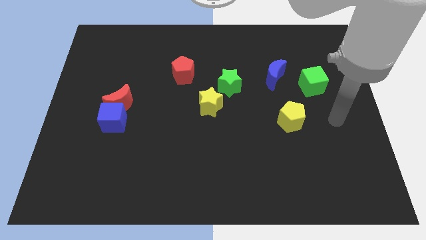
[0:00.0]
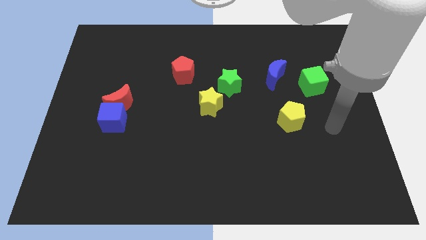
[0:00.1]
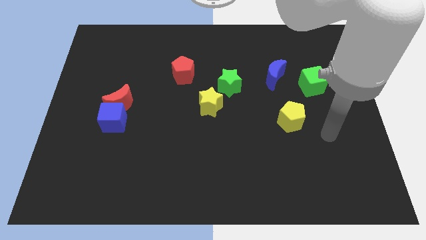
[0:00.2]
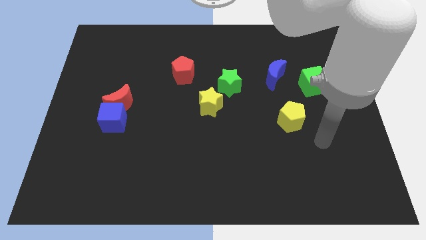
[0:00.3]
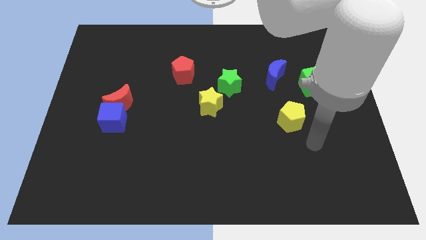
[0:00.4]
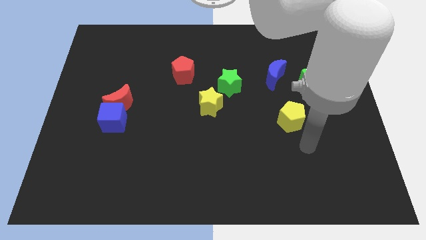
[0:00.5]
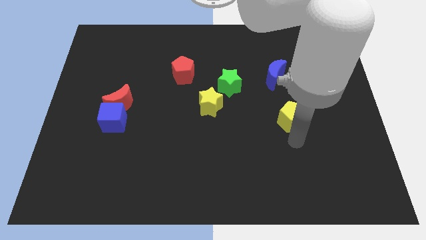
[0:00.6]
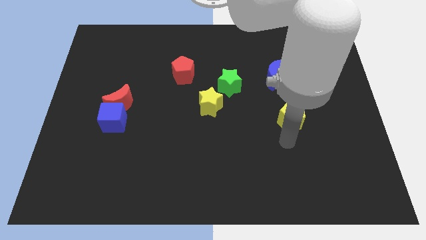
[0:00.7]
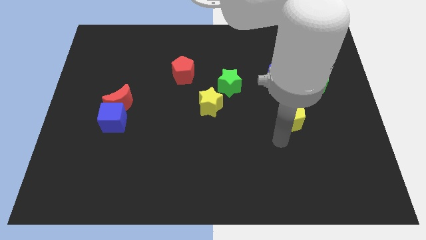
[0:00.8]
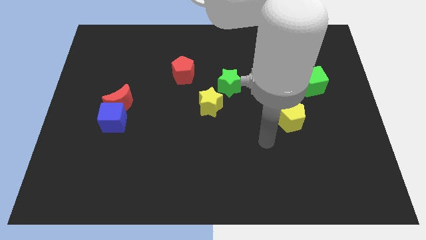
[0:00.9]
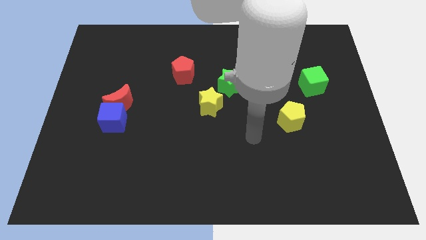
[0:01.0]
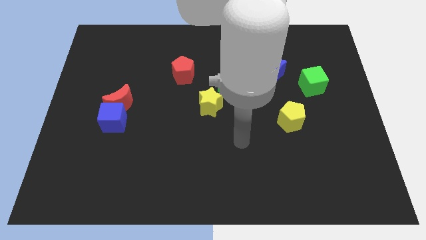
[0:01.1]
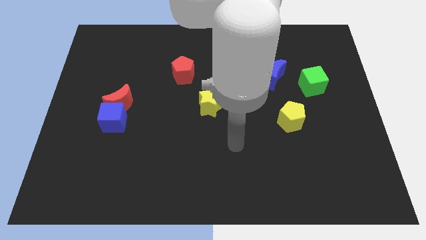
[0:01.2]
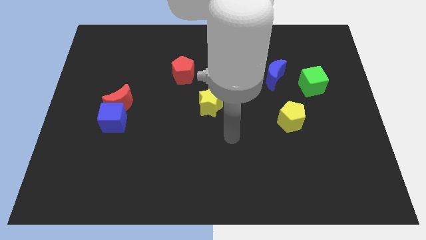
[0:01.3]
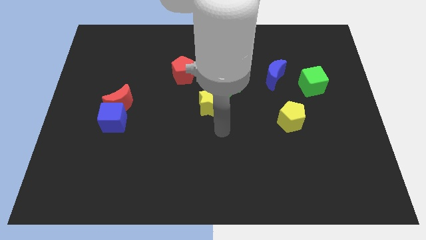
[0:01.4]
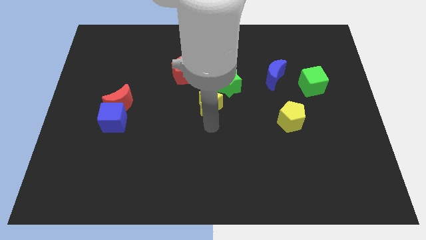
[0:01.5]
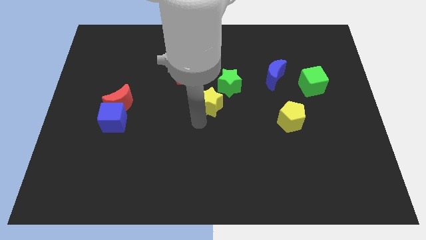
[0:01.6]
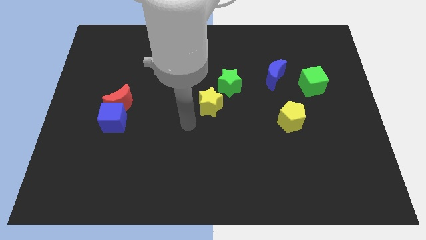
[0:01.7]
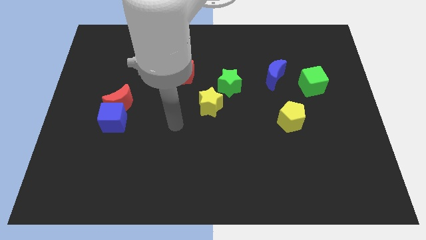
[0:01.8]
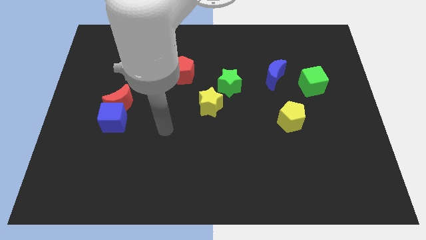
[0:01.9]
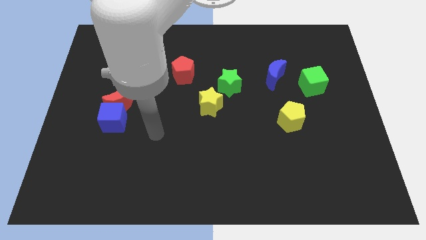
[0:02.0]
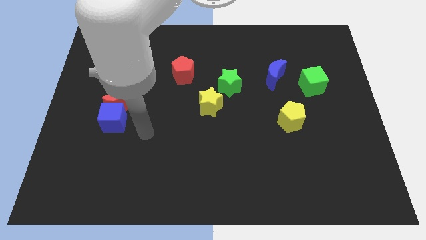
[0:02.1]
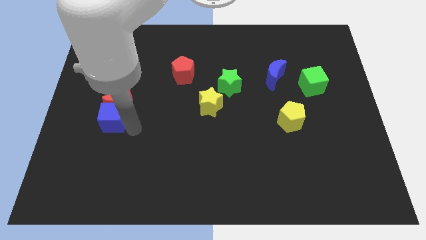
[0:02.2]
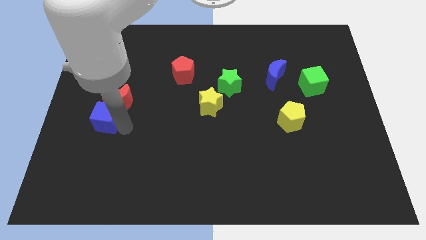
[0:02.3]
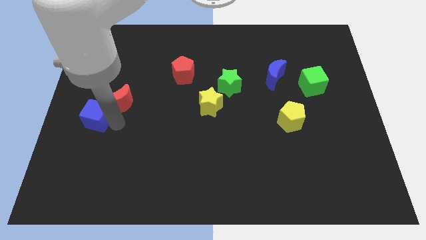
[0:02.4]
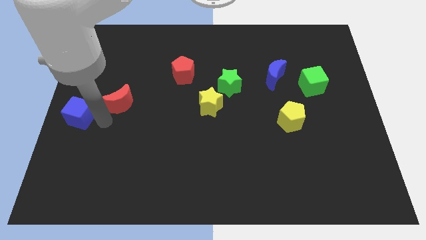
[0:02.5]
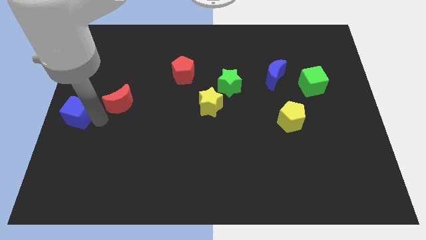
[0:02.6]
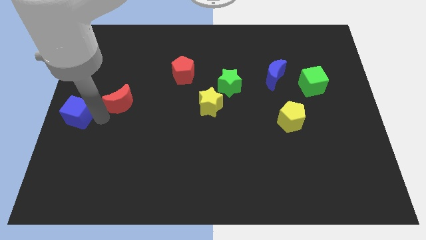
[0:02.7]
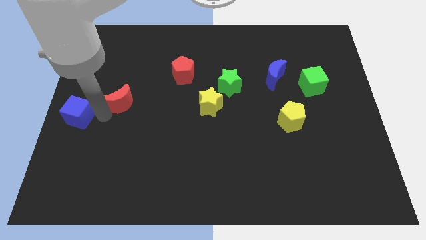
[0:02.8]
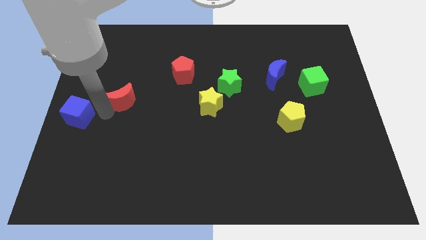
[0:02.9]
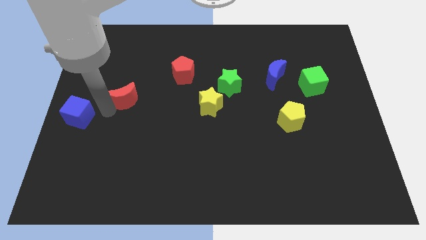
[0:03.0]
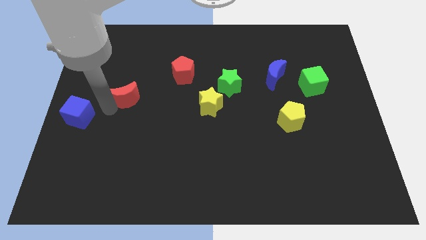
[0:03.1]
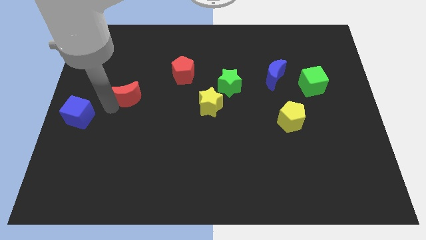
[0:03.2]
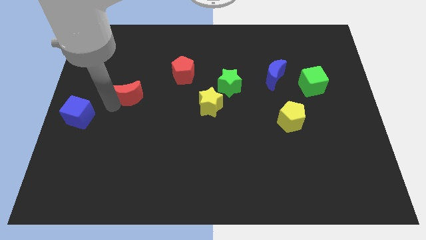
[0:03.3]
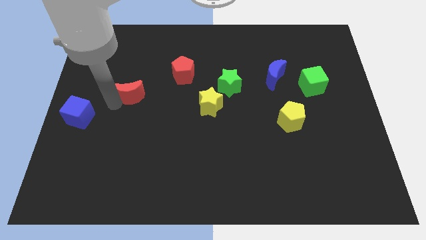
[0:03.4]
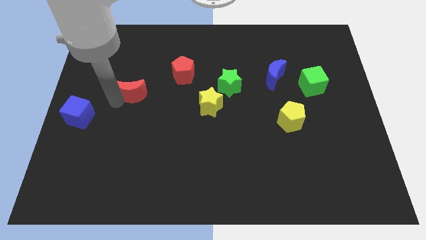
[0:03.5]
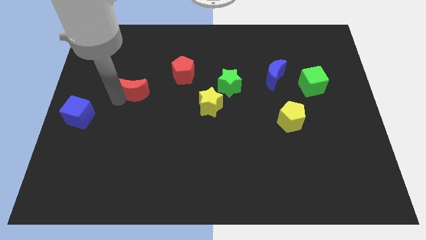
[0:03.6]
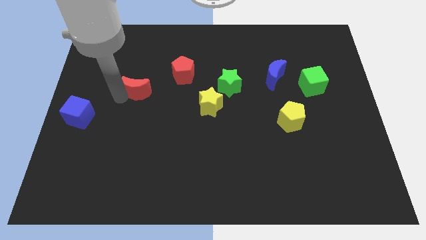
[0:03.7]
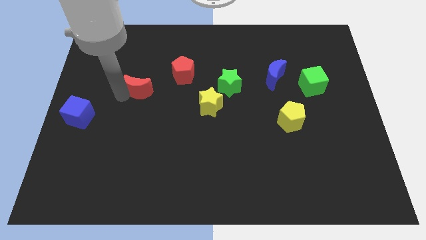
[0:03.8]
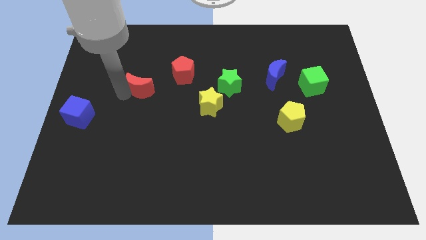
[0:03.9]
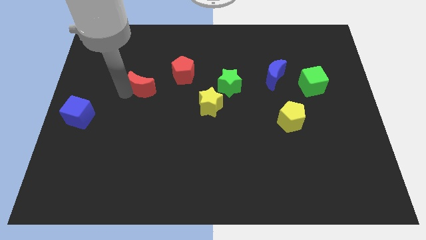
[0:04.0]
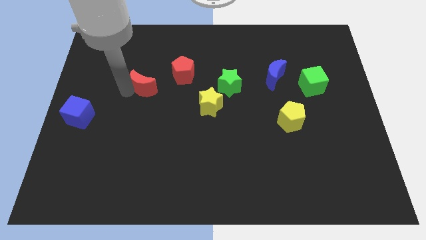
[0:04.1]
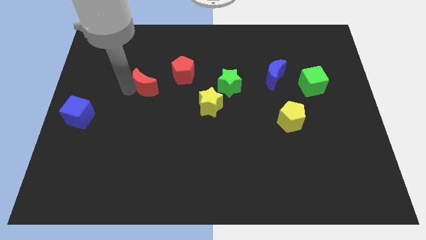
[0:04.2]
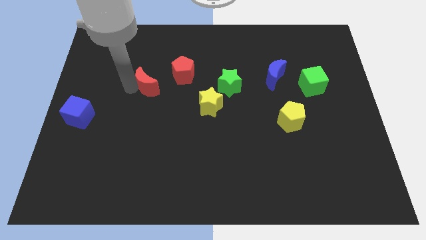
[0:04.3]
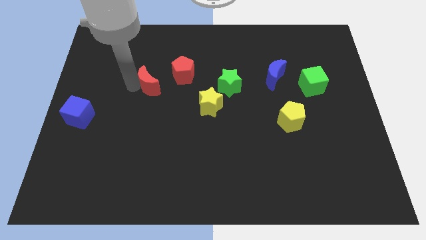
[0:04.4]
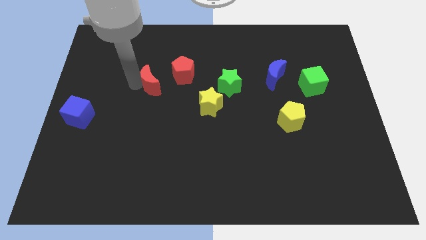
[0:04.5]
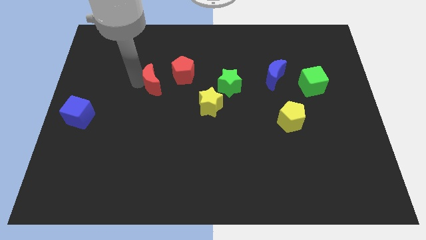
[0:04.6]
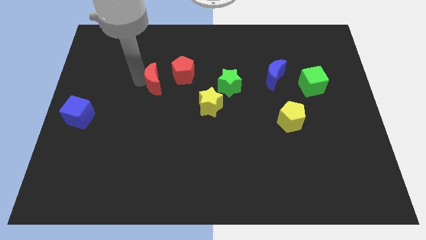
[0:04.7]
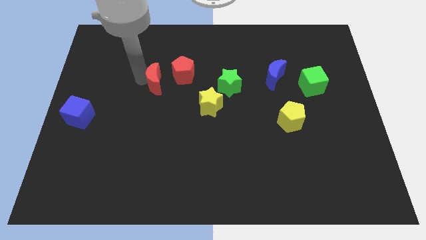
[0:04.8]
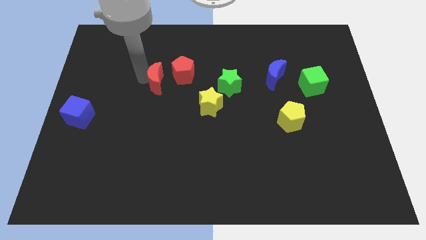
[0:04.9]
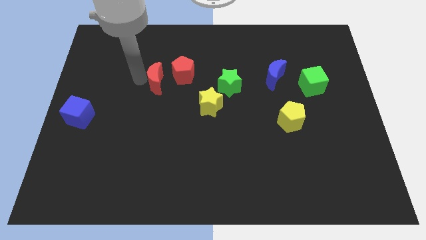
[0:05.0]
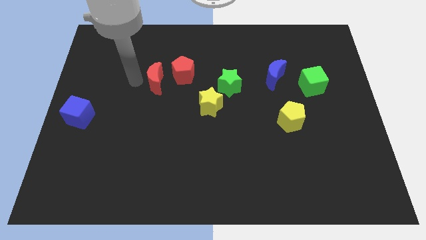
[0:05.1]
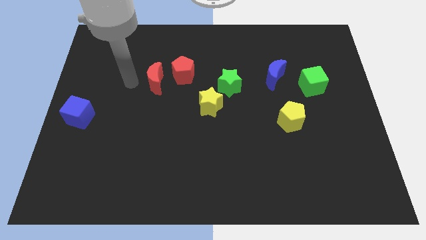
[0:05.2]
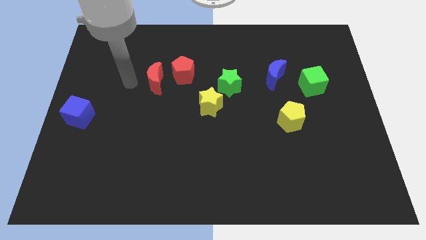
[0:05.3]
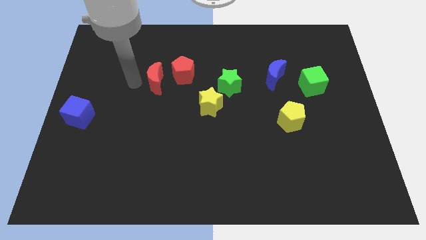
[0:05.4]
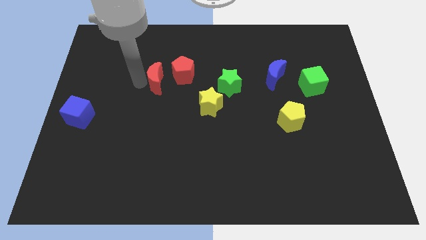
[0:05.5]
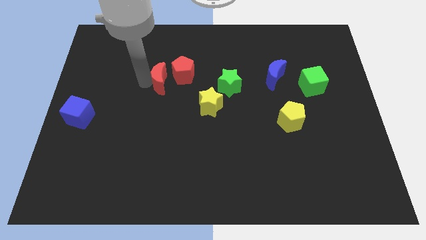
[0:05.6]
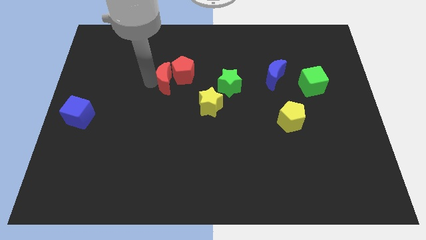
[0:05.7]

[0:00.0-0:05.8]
push the red moon towards the red pentagon

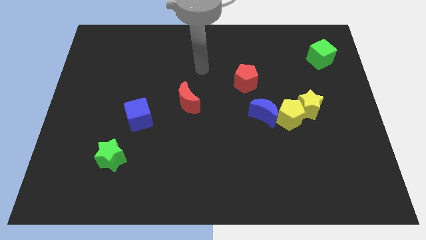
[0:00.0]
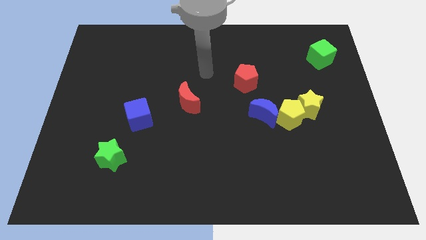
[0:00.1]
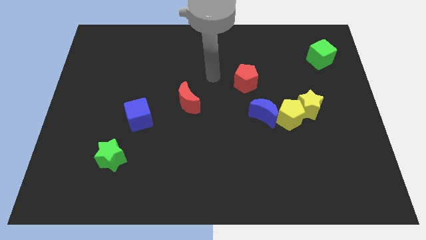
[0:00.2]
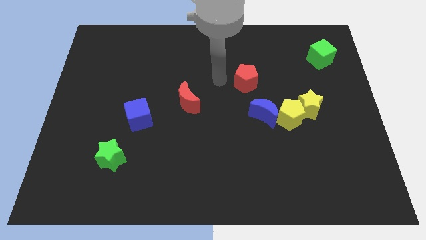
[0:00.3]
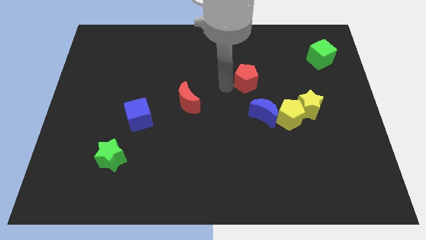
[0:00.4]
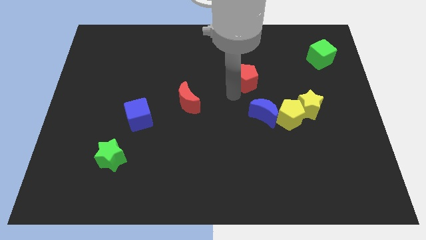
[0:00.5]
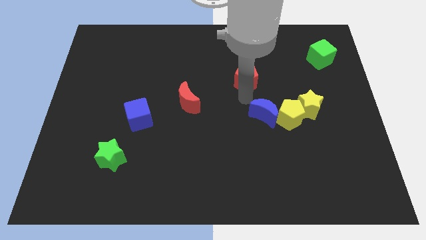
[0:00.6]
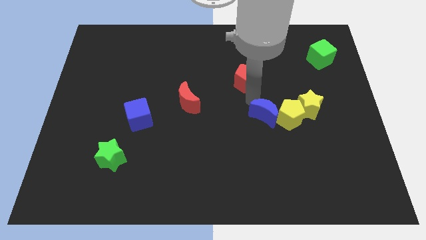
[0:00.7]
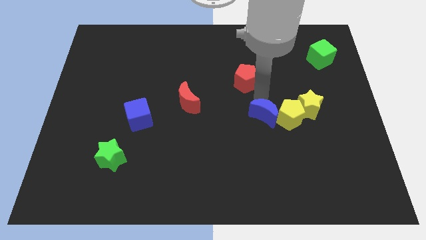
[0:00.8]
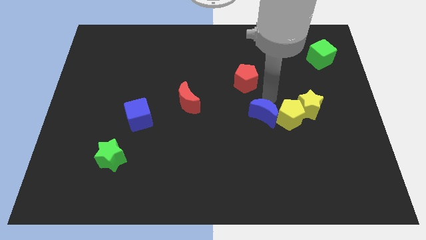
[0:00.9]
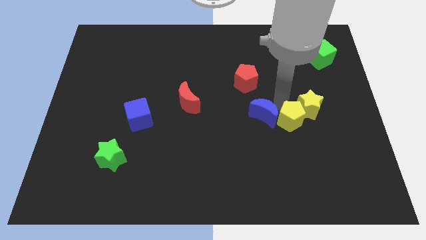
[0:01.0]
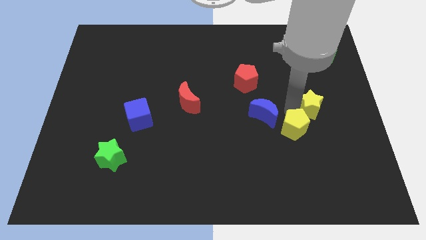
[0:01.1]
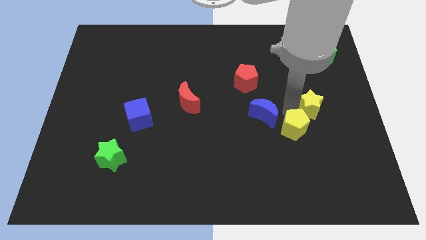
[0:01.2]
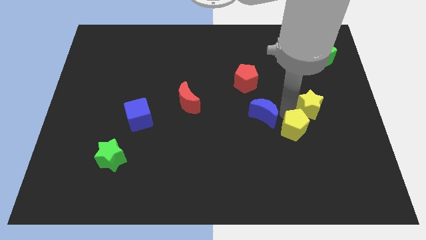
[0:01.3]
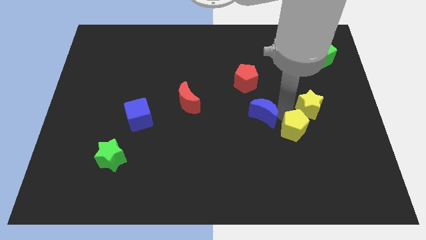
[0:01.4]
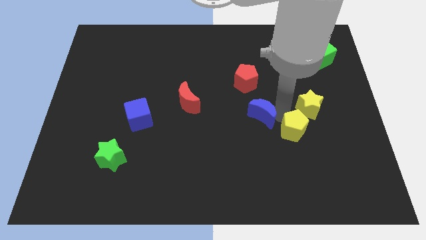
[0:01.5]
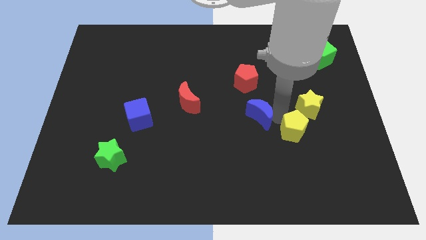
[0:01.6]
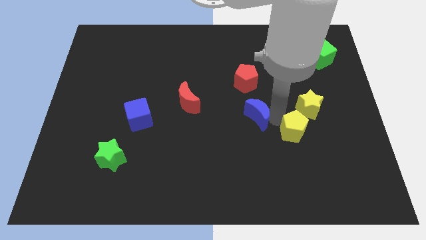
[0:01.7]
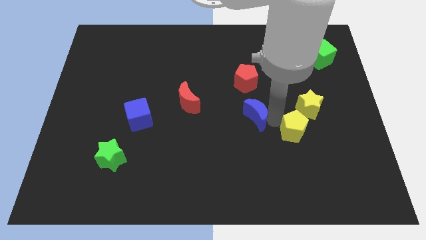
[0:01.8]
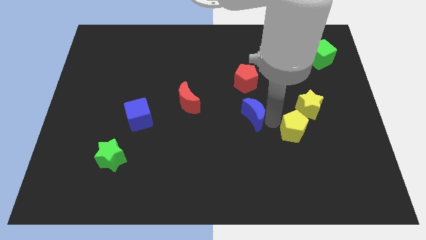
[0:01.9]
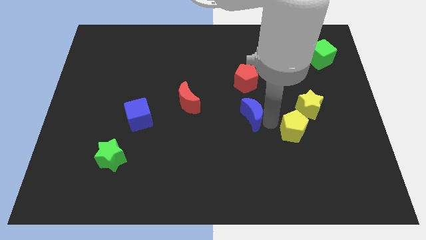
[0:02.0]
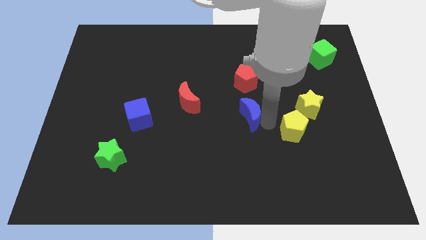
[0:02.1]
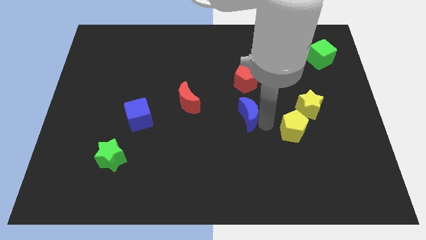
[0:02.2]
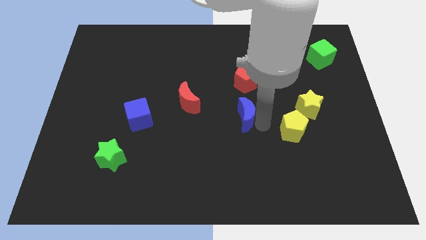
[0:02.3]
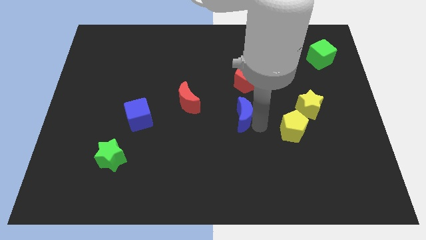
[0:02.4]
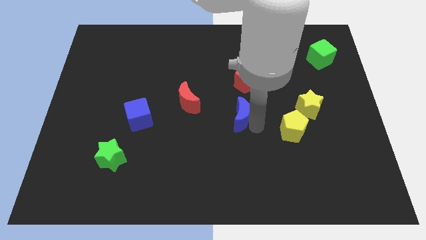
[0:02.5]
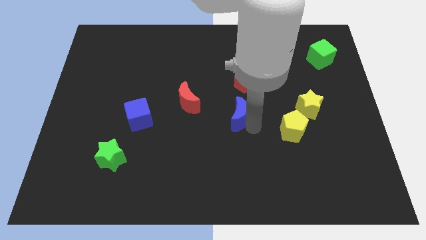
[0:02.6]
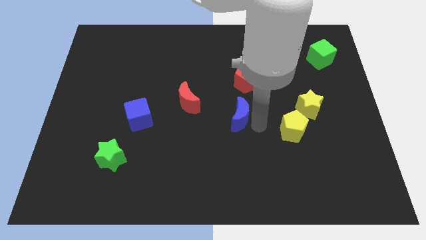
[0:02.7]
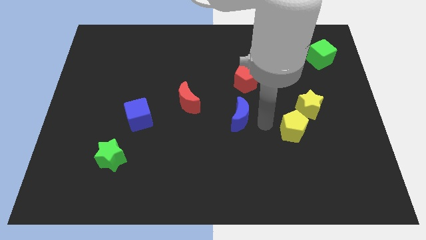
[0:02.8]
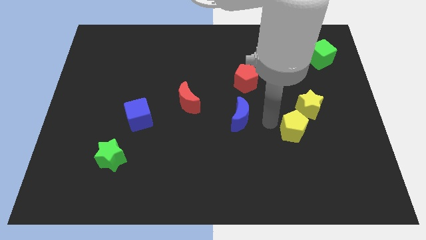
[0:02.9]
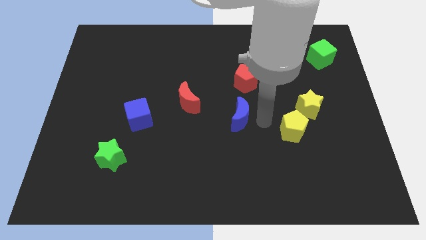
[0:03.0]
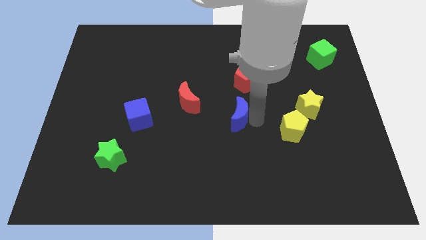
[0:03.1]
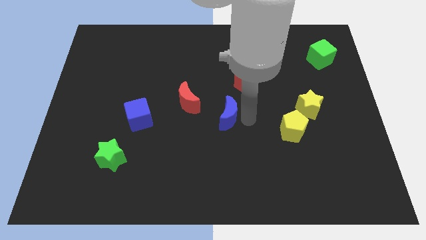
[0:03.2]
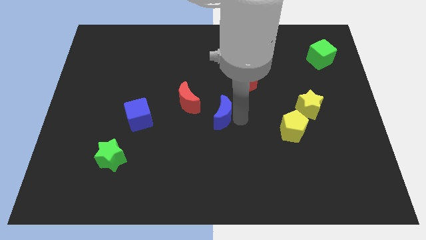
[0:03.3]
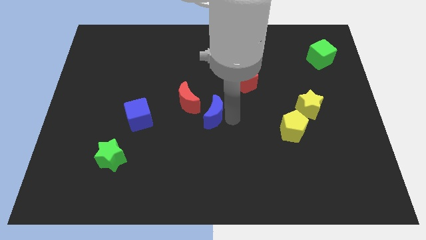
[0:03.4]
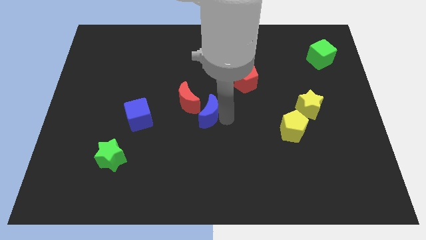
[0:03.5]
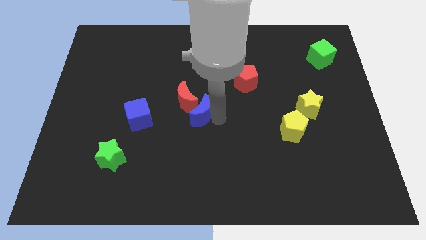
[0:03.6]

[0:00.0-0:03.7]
put the blue moon towards the red moon
